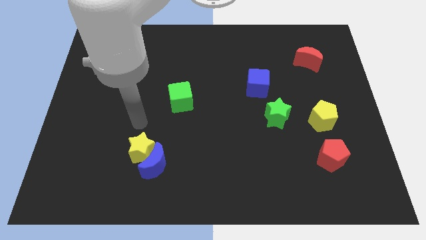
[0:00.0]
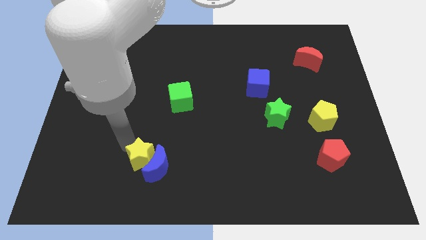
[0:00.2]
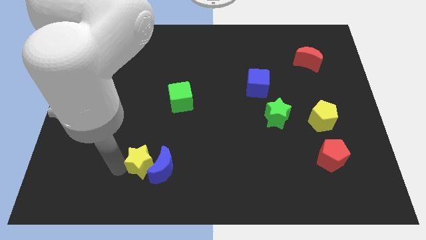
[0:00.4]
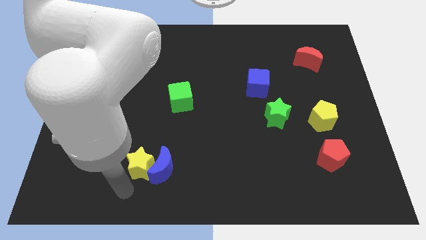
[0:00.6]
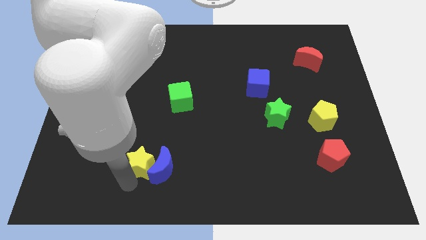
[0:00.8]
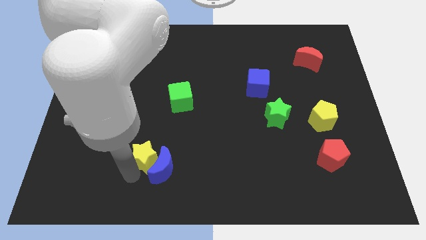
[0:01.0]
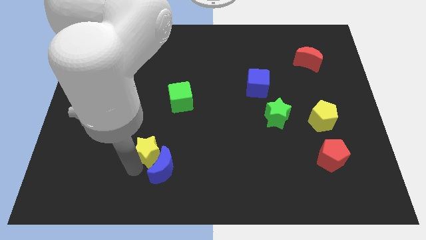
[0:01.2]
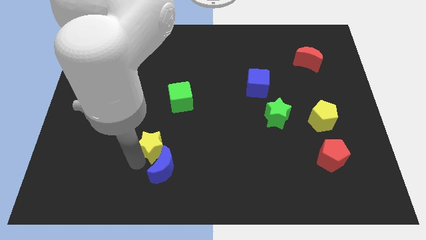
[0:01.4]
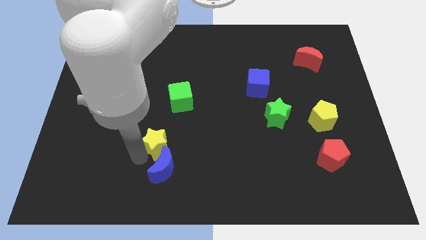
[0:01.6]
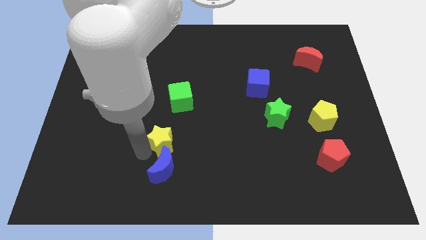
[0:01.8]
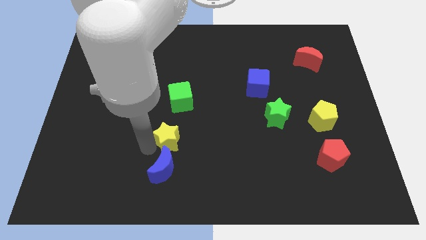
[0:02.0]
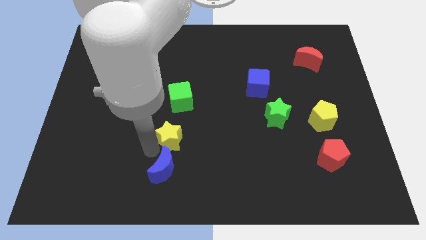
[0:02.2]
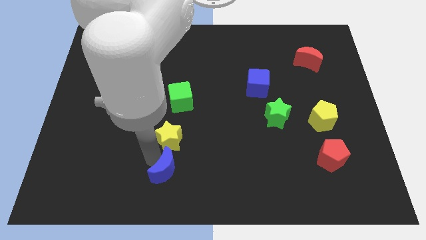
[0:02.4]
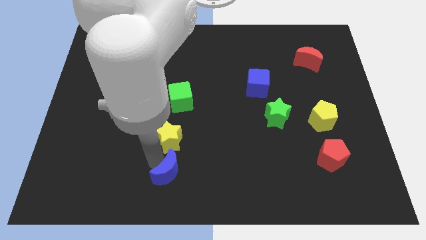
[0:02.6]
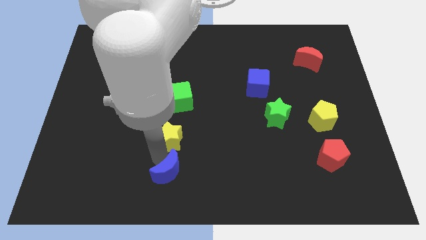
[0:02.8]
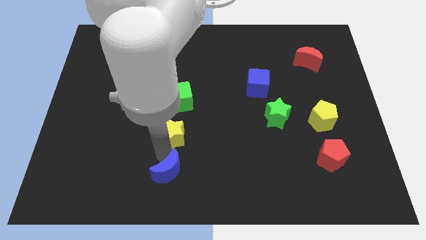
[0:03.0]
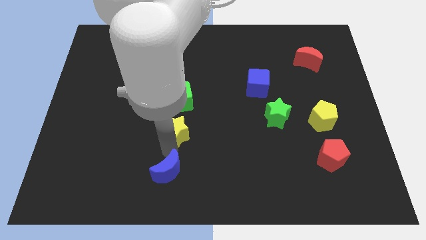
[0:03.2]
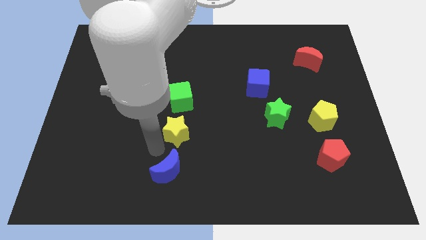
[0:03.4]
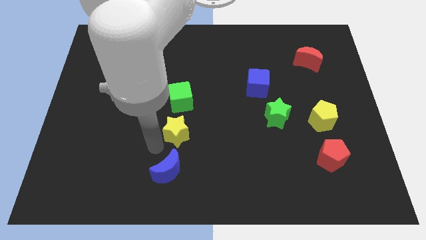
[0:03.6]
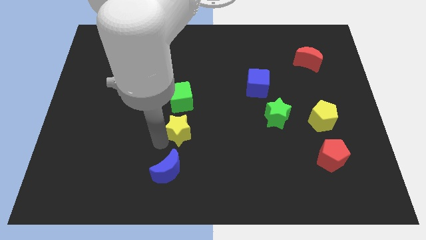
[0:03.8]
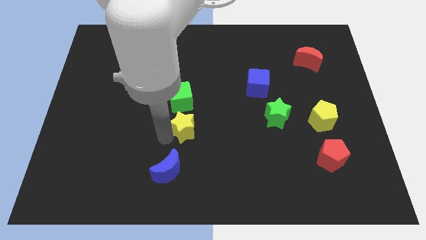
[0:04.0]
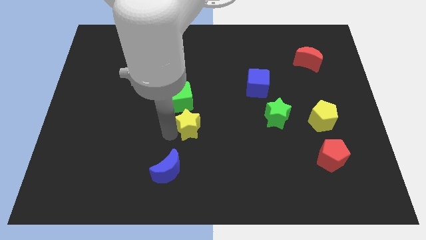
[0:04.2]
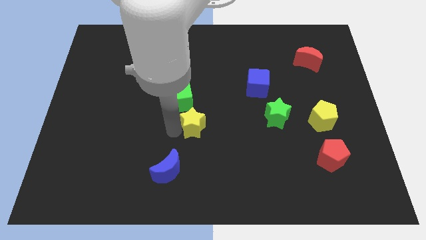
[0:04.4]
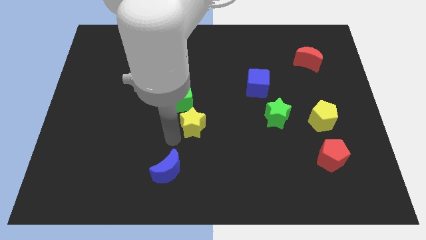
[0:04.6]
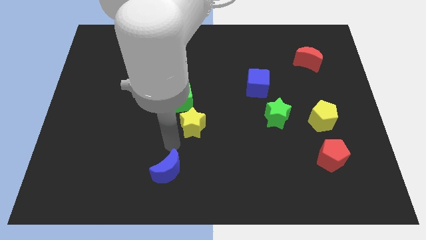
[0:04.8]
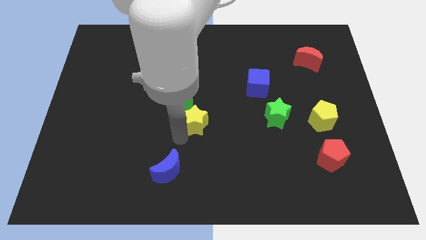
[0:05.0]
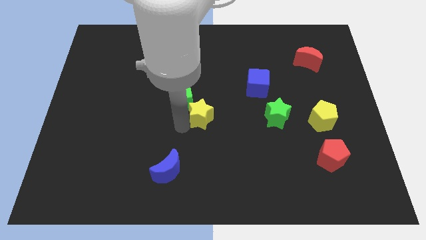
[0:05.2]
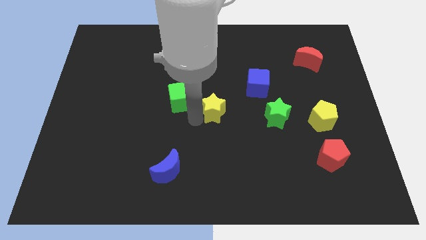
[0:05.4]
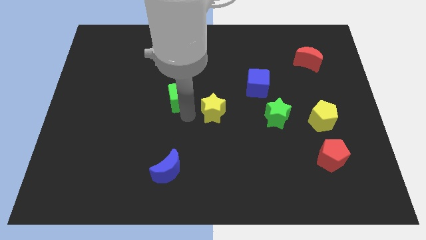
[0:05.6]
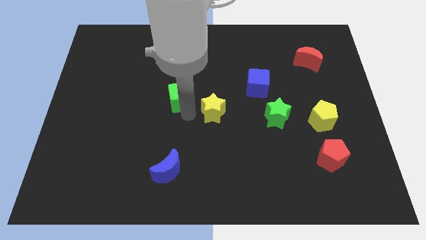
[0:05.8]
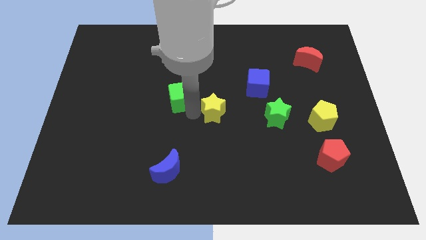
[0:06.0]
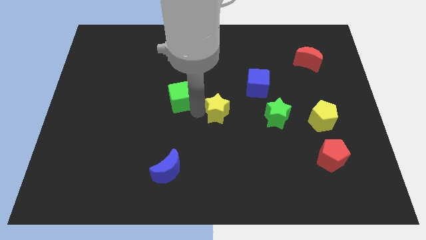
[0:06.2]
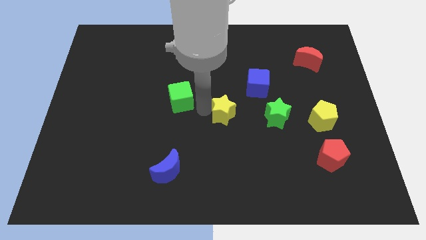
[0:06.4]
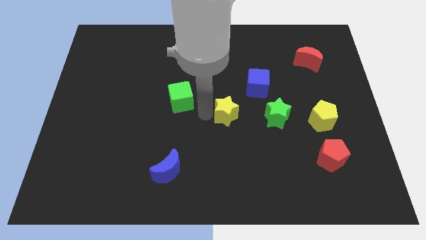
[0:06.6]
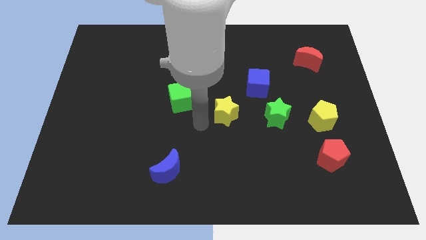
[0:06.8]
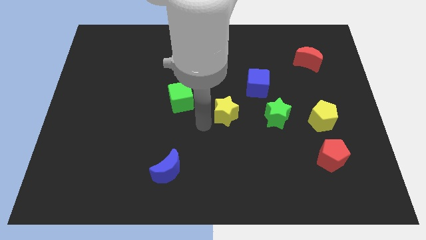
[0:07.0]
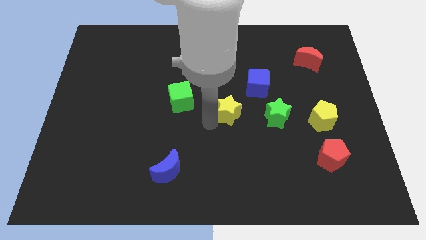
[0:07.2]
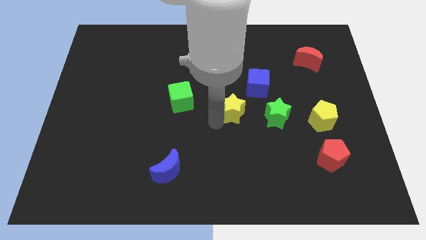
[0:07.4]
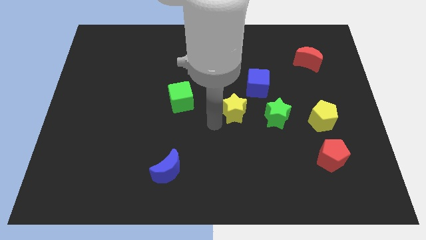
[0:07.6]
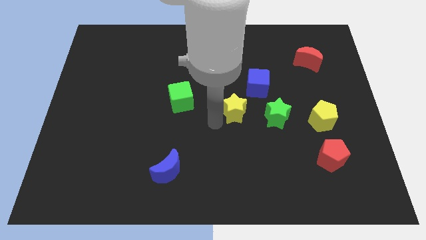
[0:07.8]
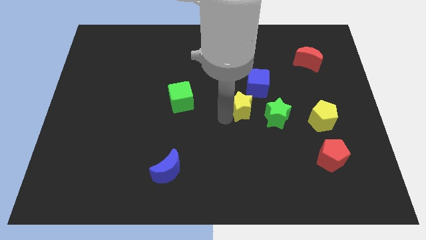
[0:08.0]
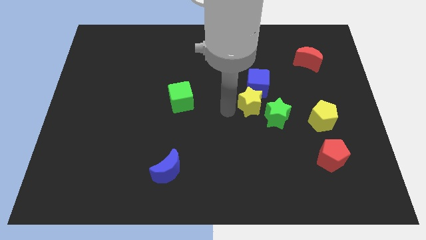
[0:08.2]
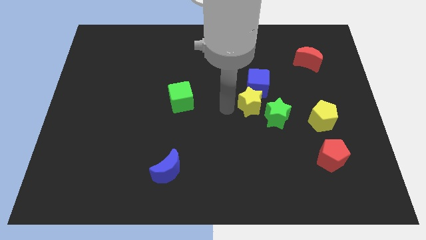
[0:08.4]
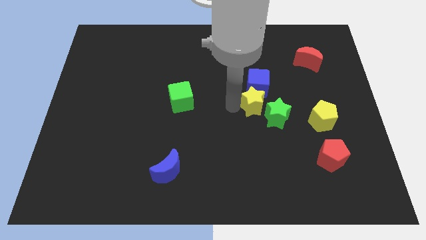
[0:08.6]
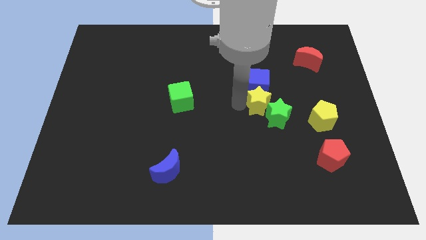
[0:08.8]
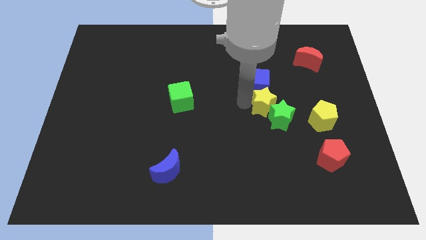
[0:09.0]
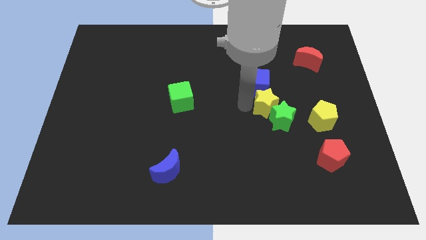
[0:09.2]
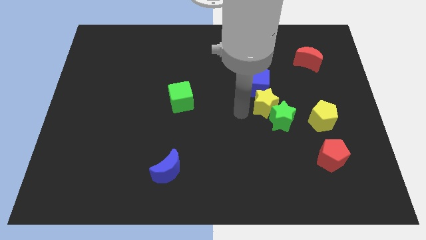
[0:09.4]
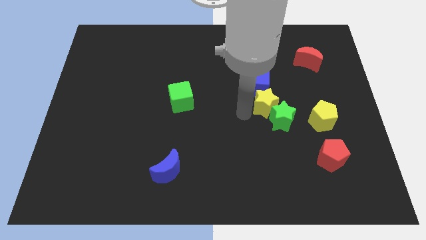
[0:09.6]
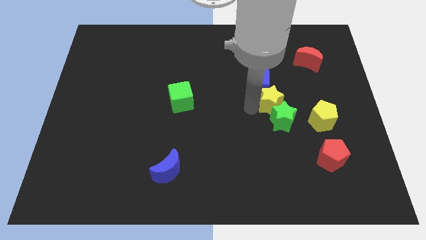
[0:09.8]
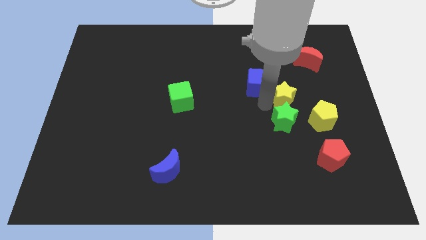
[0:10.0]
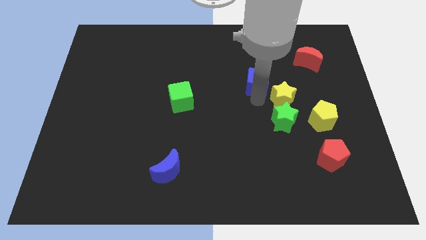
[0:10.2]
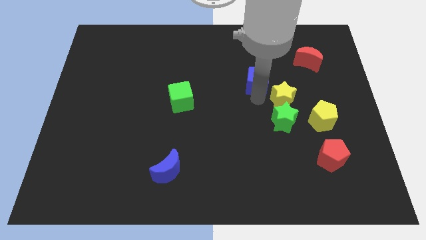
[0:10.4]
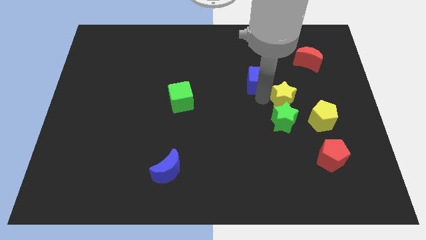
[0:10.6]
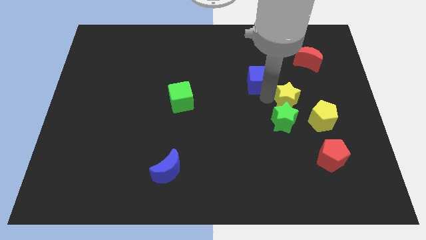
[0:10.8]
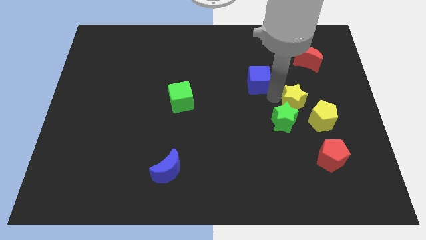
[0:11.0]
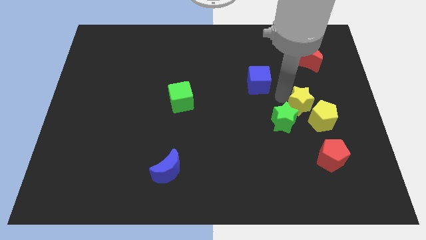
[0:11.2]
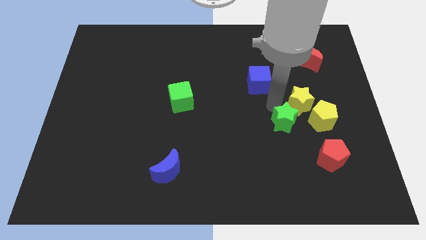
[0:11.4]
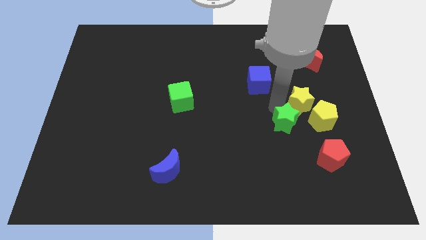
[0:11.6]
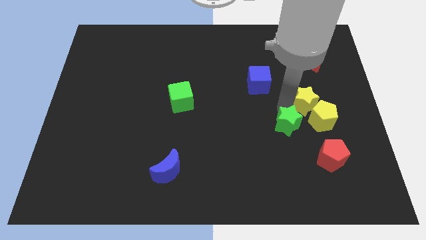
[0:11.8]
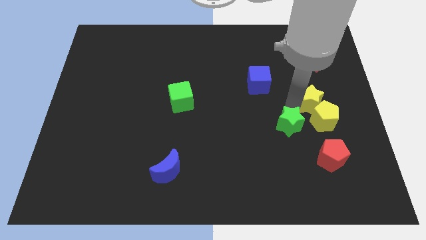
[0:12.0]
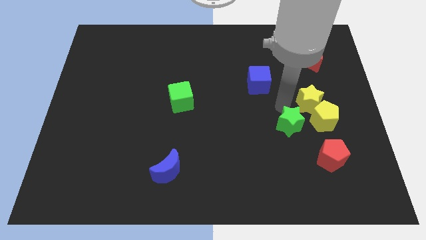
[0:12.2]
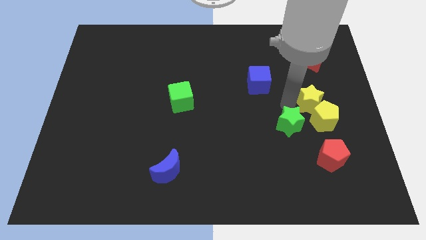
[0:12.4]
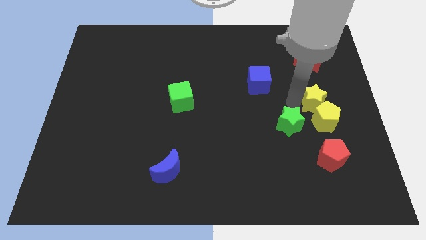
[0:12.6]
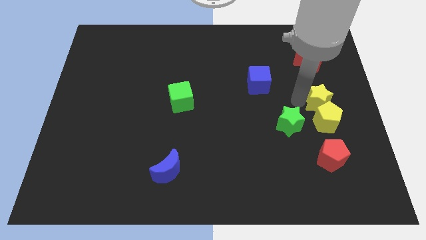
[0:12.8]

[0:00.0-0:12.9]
push the yellow star to the right side of the board

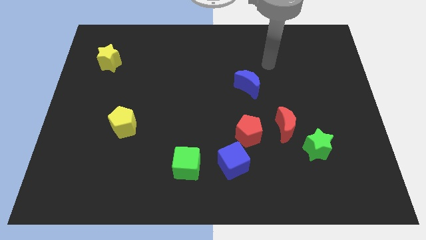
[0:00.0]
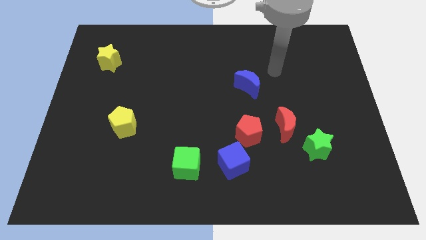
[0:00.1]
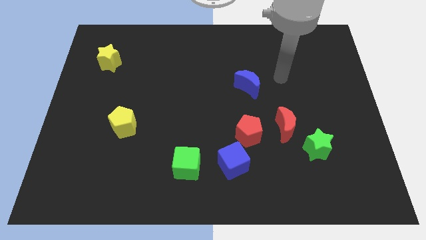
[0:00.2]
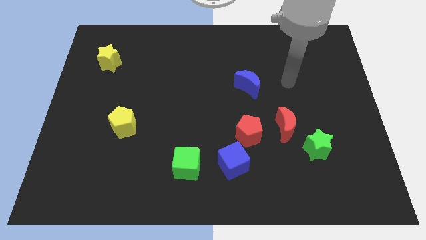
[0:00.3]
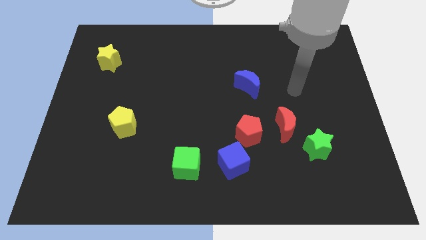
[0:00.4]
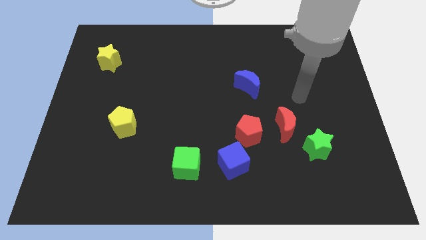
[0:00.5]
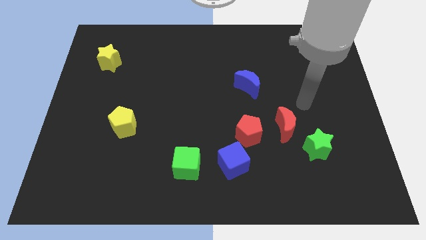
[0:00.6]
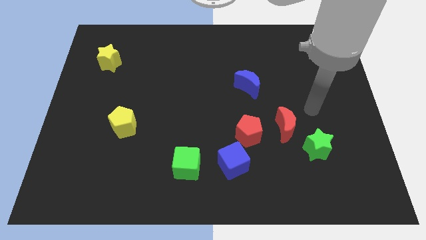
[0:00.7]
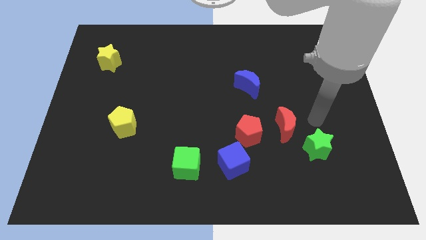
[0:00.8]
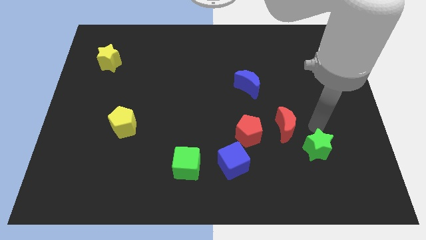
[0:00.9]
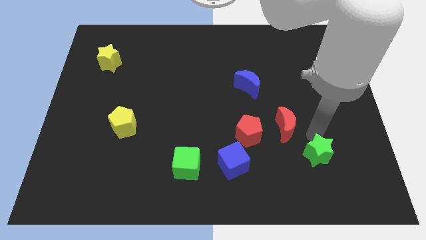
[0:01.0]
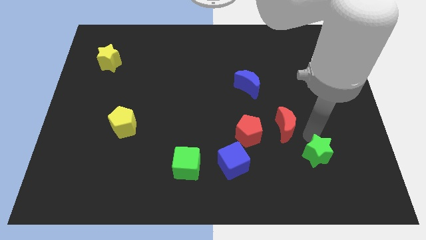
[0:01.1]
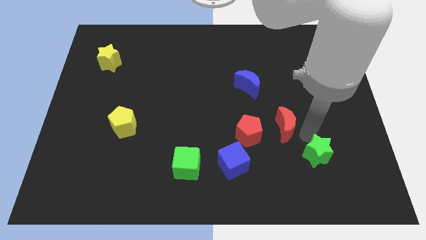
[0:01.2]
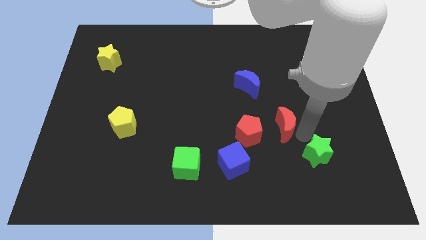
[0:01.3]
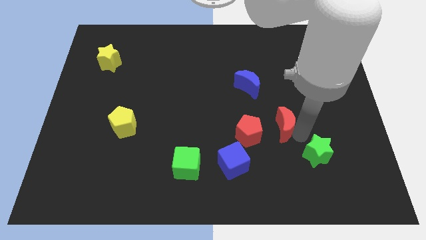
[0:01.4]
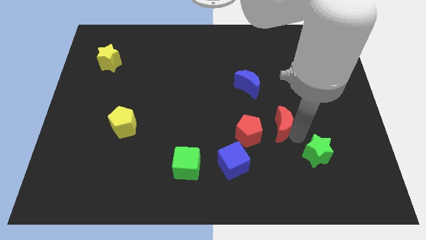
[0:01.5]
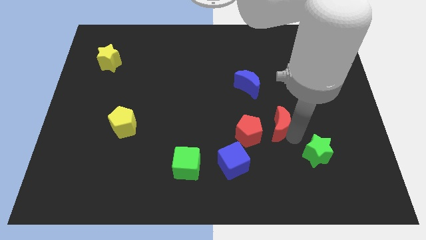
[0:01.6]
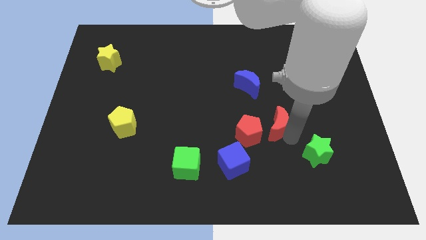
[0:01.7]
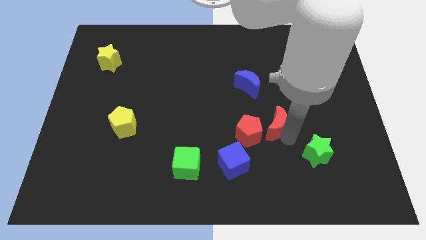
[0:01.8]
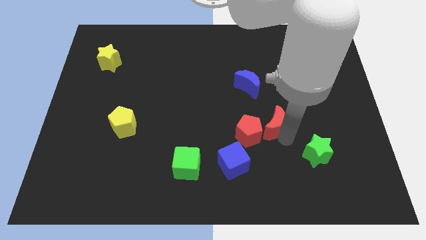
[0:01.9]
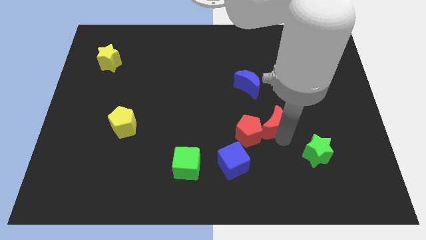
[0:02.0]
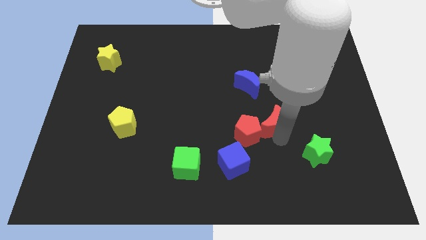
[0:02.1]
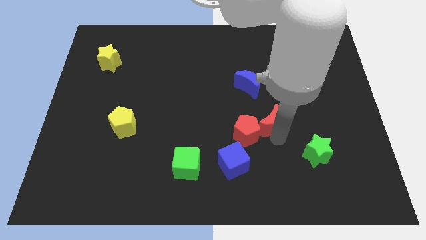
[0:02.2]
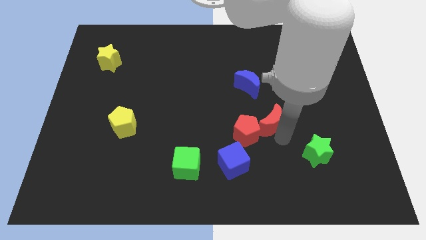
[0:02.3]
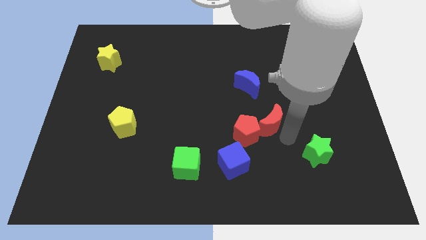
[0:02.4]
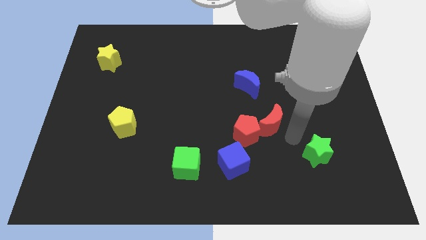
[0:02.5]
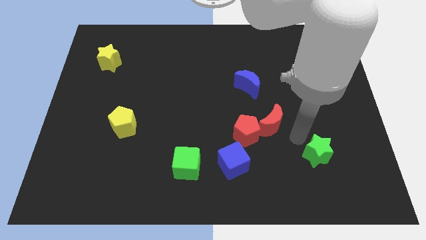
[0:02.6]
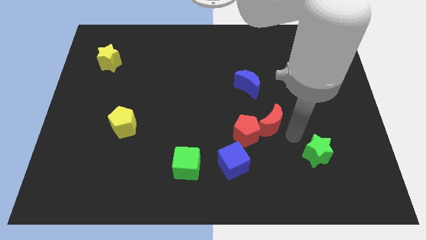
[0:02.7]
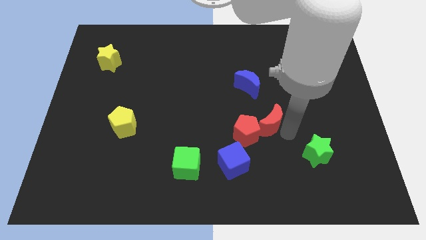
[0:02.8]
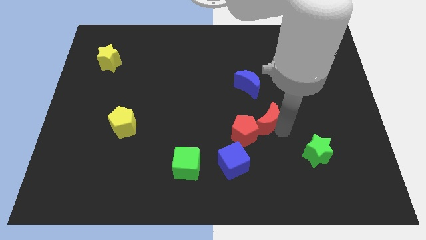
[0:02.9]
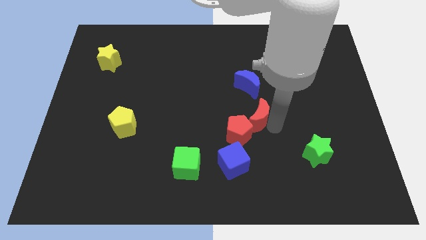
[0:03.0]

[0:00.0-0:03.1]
move the red moon to the middle of the board
